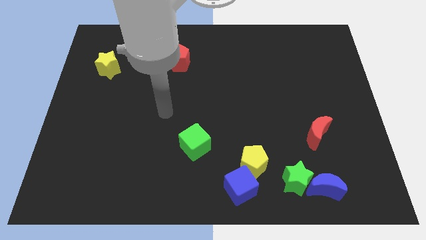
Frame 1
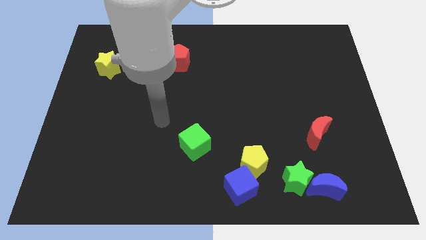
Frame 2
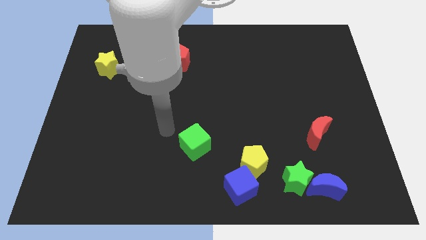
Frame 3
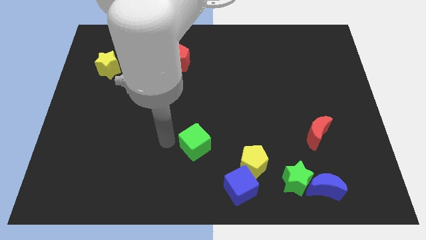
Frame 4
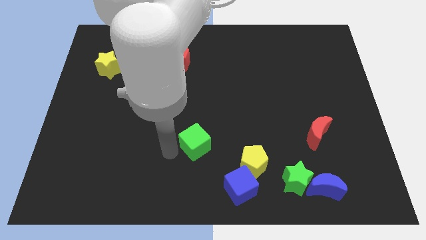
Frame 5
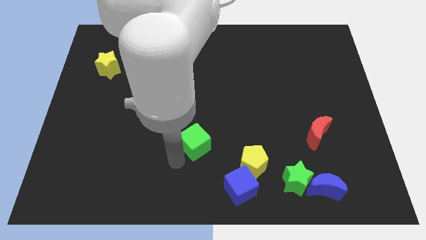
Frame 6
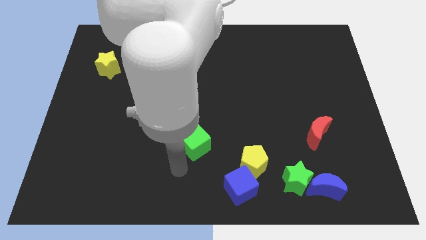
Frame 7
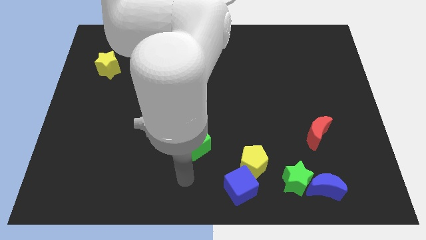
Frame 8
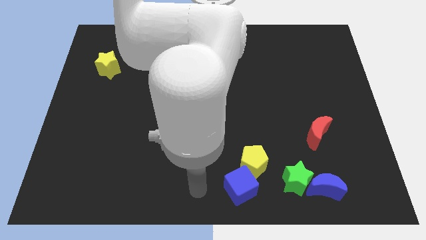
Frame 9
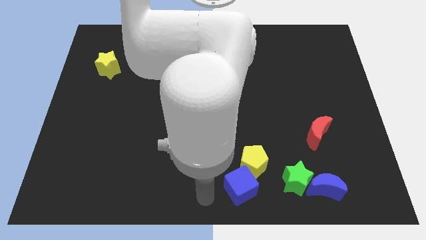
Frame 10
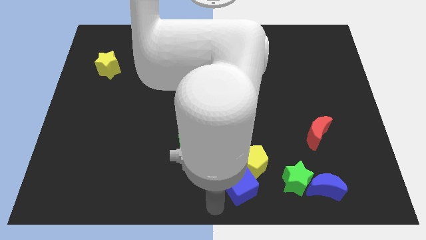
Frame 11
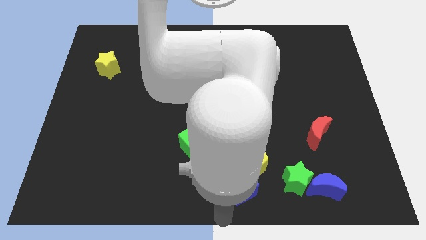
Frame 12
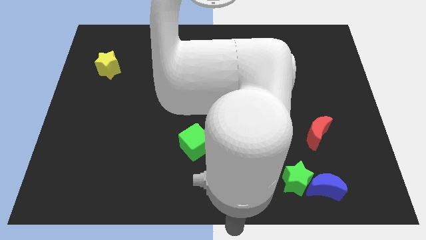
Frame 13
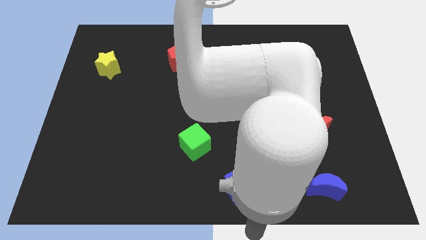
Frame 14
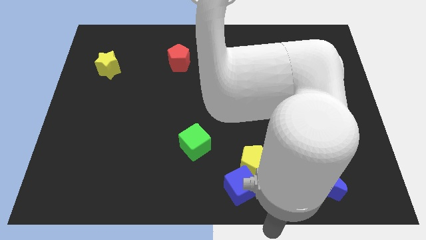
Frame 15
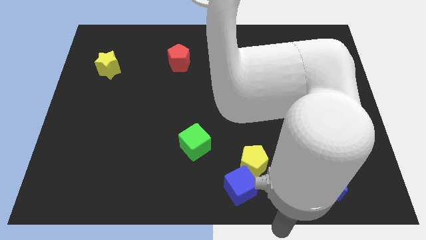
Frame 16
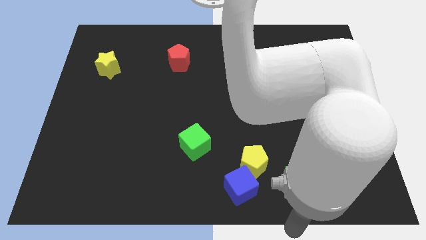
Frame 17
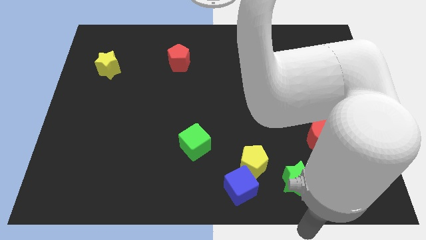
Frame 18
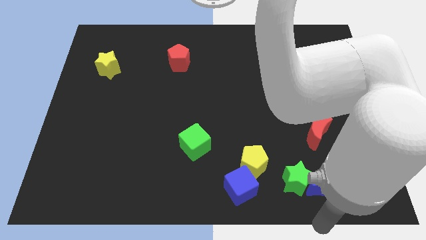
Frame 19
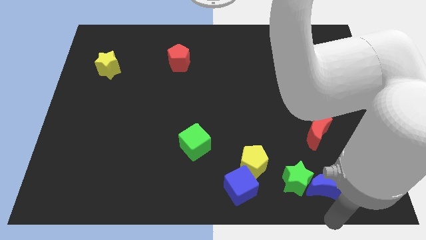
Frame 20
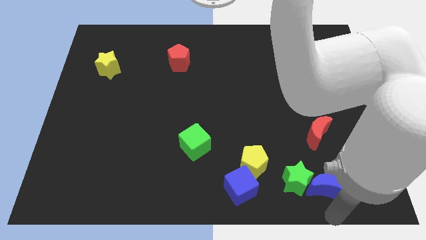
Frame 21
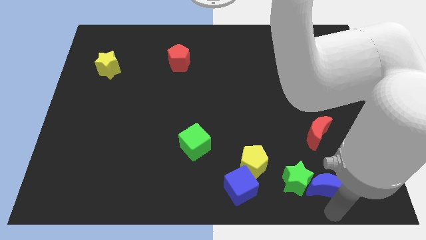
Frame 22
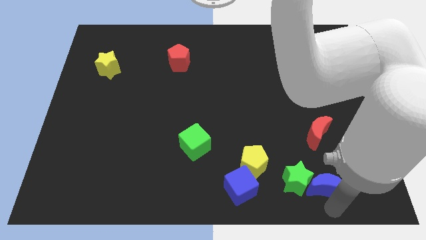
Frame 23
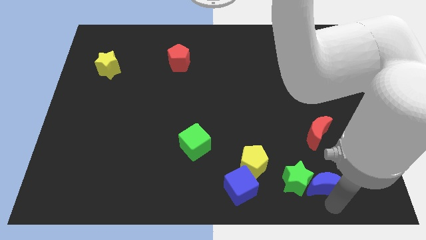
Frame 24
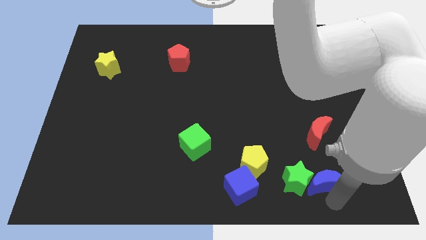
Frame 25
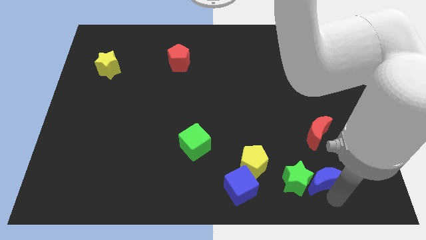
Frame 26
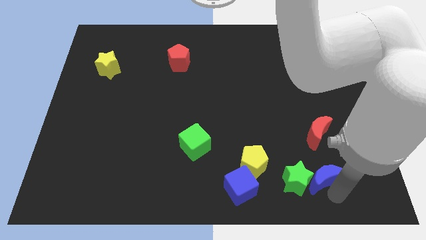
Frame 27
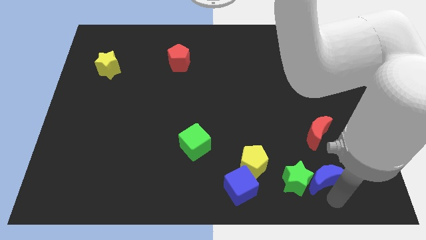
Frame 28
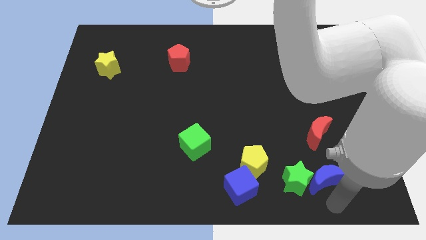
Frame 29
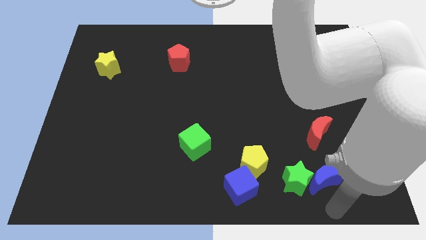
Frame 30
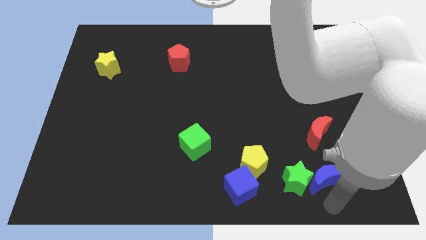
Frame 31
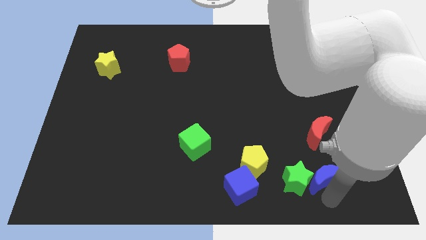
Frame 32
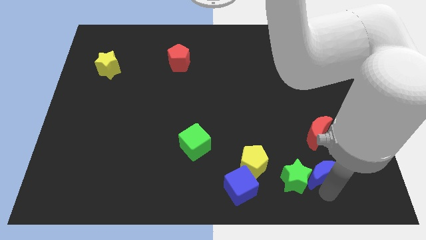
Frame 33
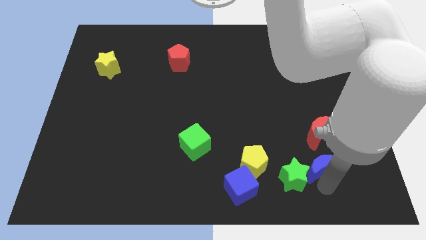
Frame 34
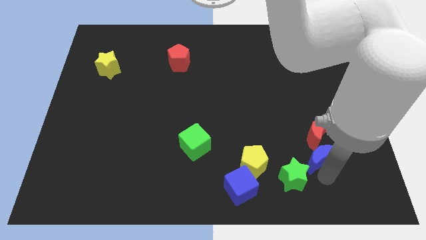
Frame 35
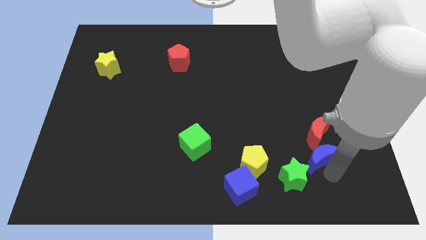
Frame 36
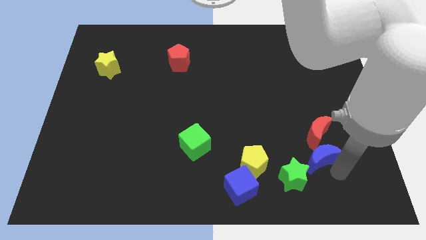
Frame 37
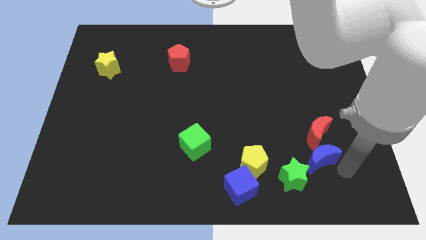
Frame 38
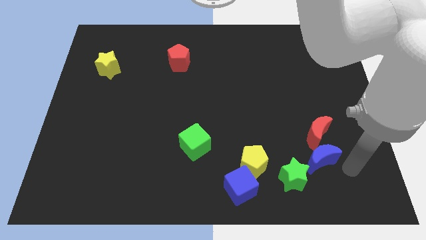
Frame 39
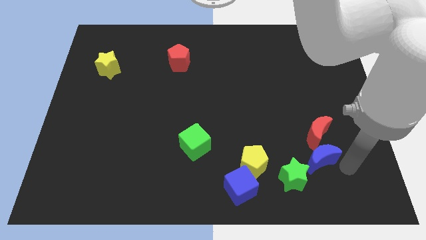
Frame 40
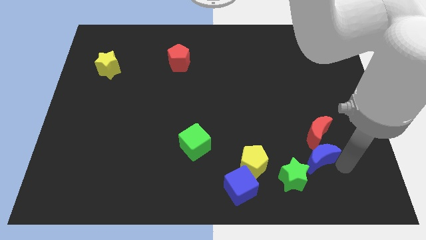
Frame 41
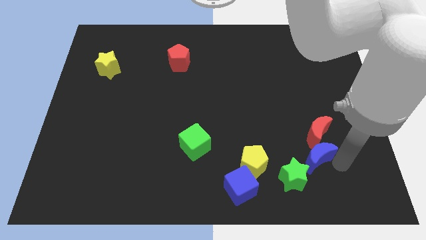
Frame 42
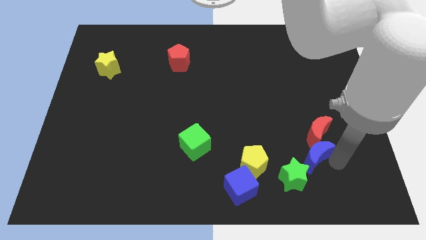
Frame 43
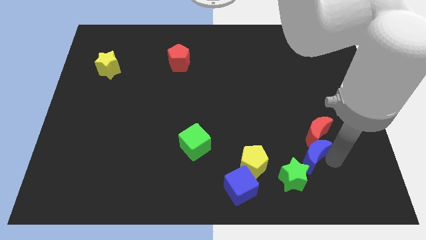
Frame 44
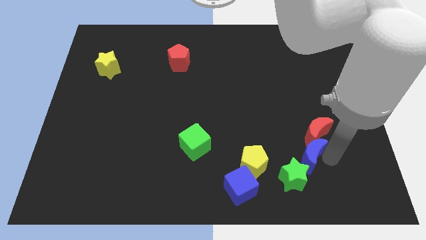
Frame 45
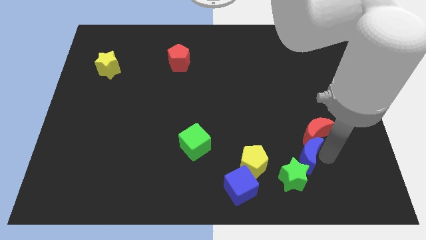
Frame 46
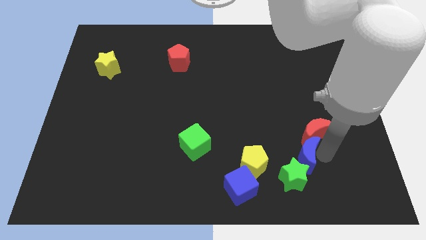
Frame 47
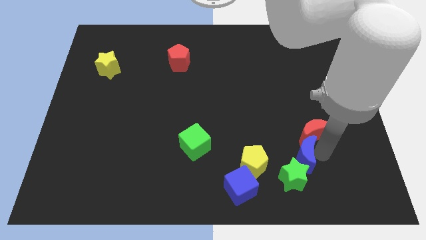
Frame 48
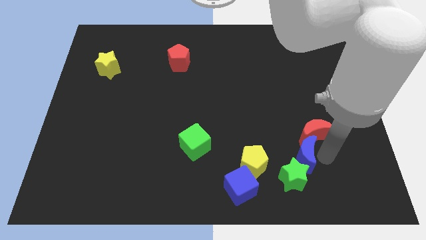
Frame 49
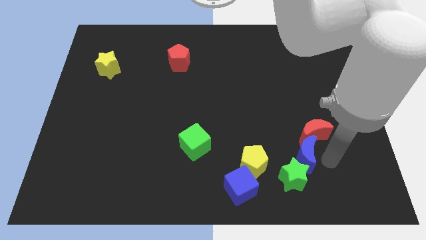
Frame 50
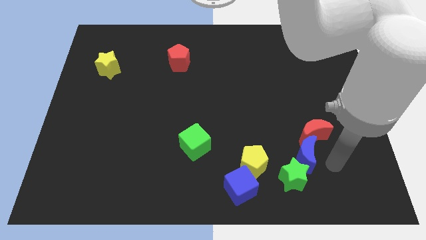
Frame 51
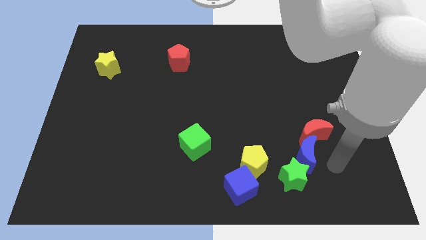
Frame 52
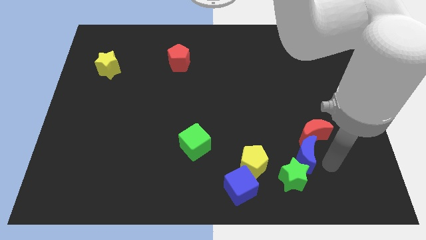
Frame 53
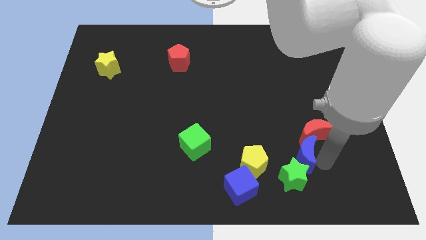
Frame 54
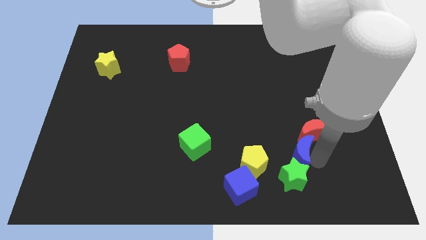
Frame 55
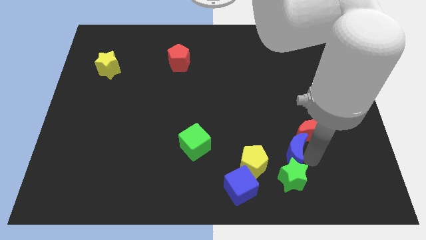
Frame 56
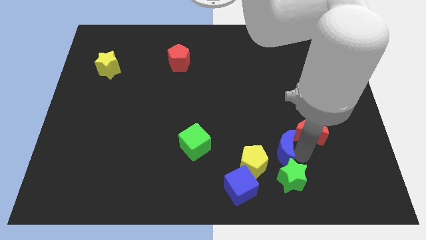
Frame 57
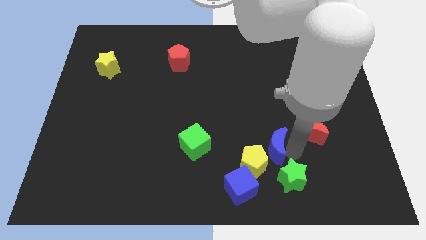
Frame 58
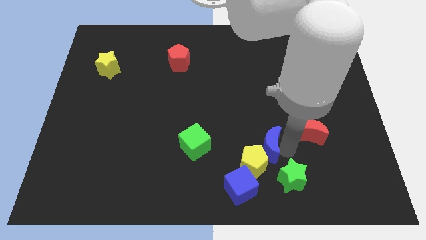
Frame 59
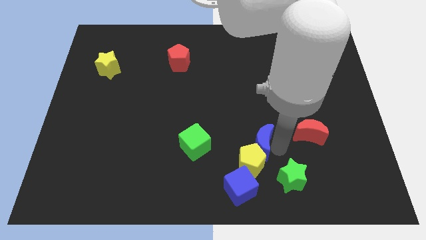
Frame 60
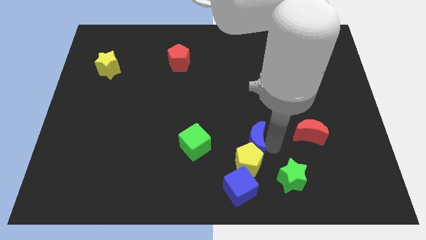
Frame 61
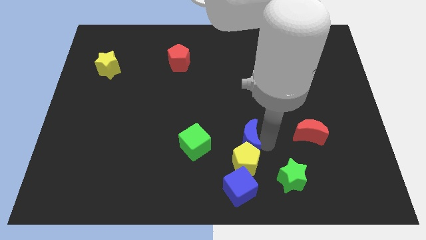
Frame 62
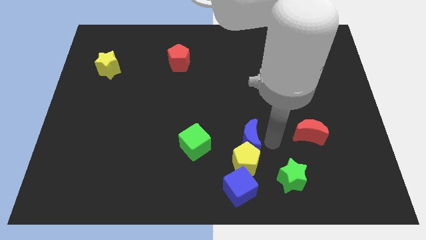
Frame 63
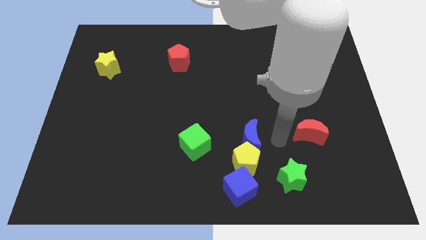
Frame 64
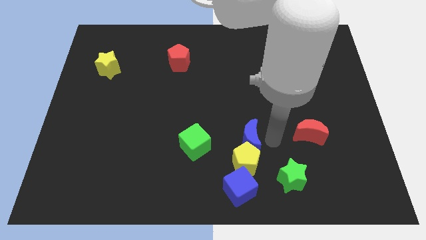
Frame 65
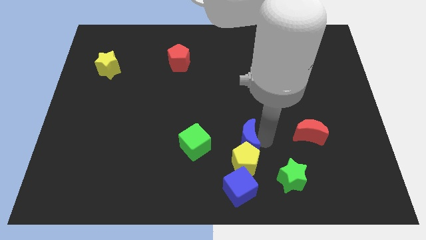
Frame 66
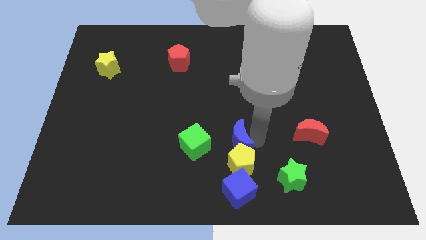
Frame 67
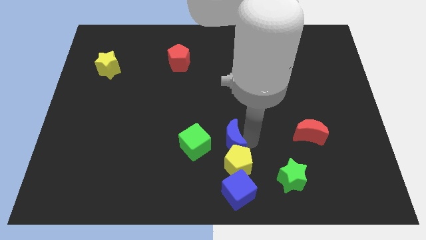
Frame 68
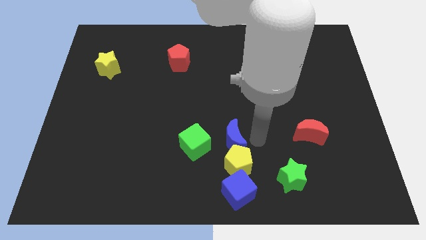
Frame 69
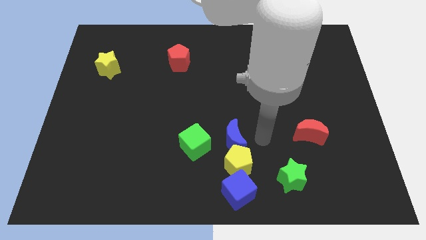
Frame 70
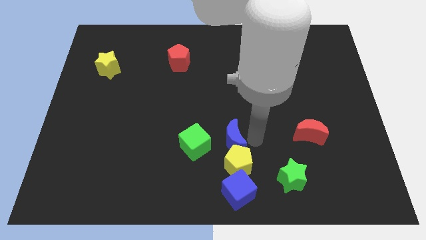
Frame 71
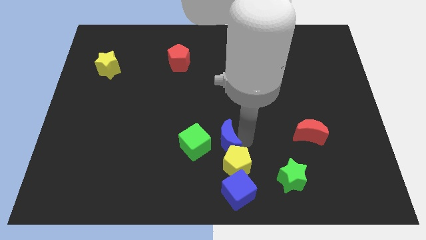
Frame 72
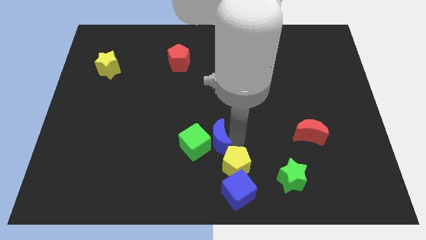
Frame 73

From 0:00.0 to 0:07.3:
slide the blue moon towards the green cube

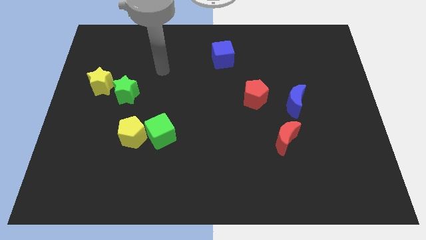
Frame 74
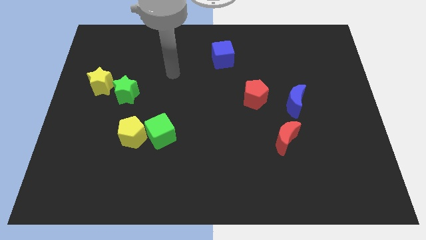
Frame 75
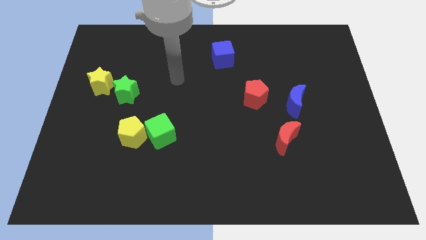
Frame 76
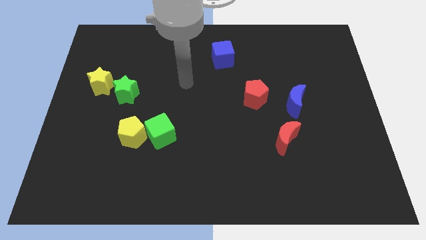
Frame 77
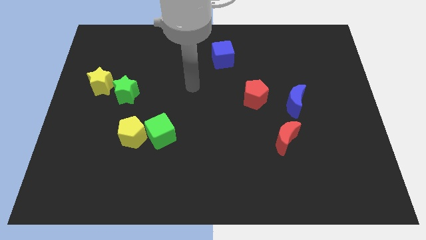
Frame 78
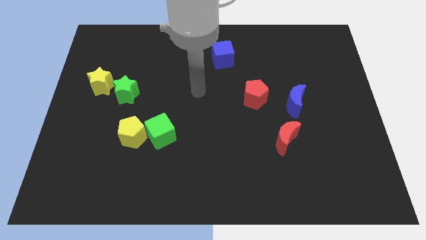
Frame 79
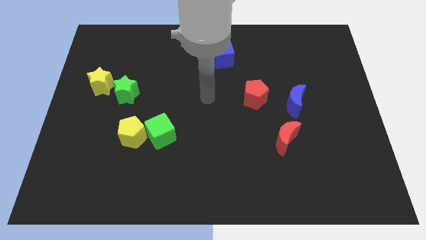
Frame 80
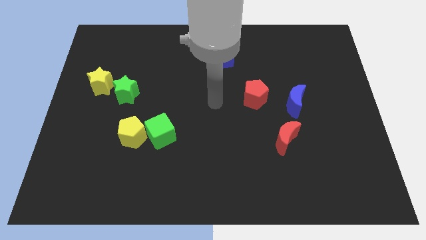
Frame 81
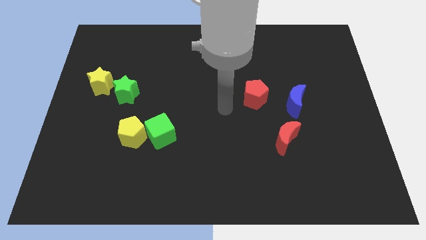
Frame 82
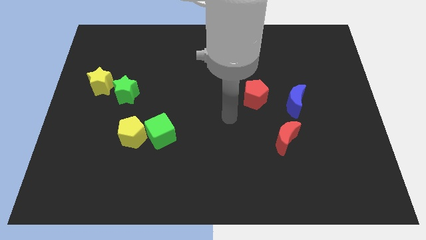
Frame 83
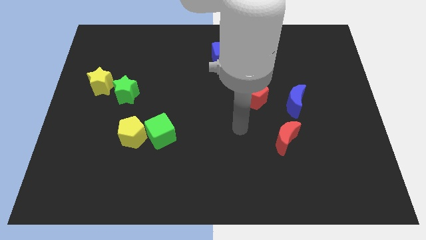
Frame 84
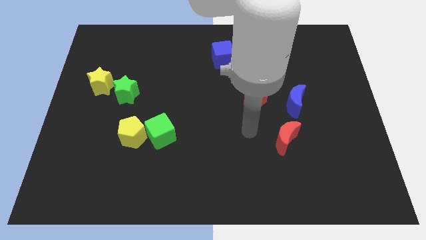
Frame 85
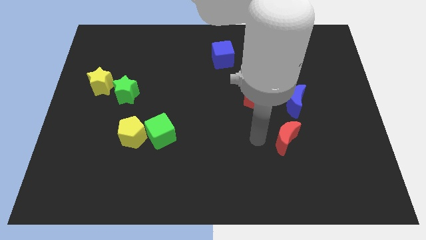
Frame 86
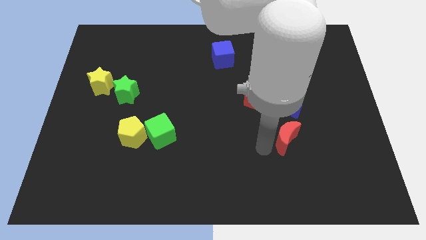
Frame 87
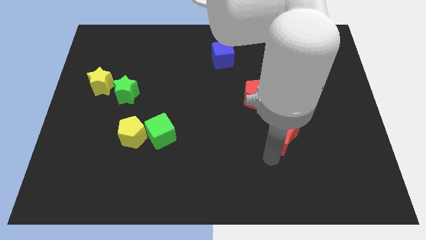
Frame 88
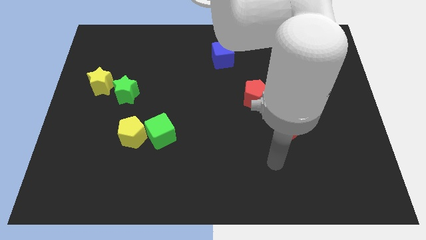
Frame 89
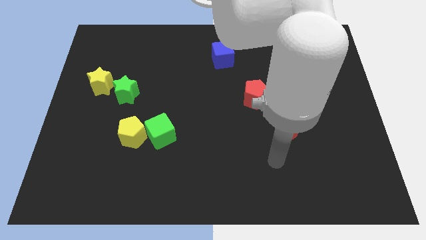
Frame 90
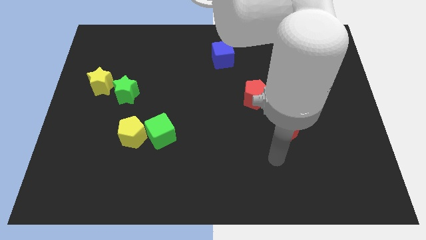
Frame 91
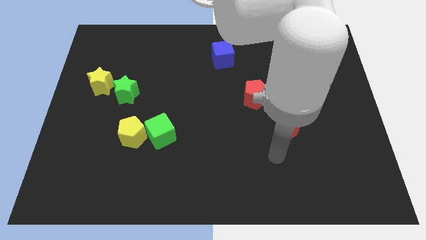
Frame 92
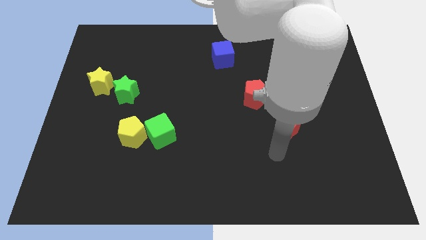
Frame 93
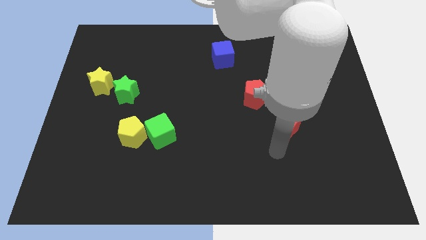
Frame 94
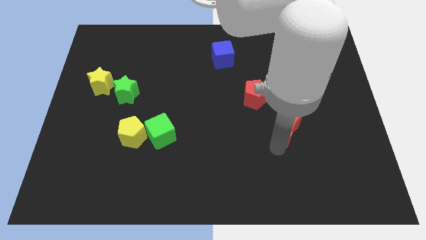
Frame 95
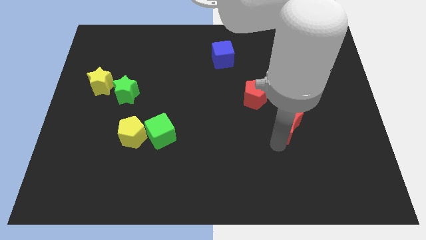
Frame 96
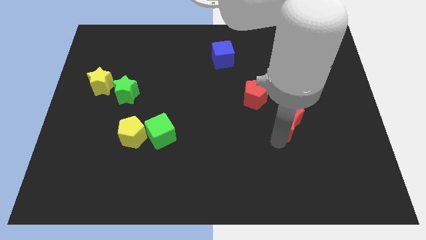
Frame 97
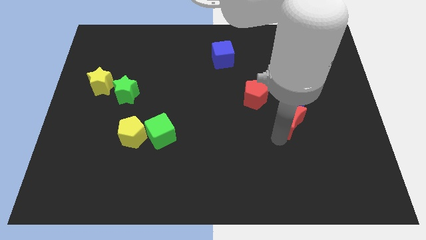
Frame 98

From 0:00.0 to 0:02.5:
move the red moon close to the blue moon
